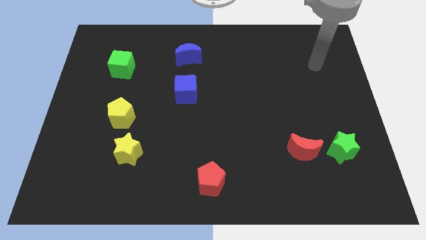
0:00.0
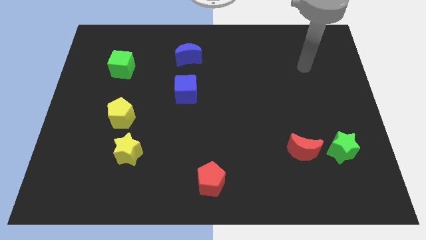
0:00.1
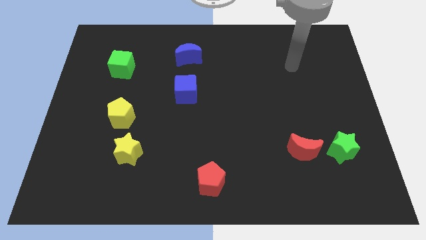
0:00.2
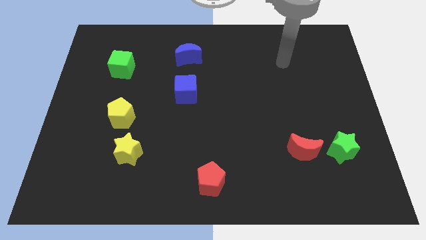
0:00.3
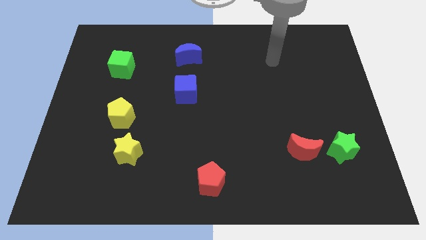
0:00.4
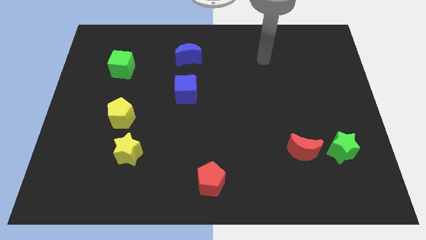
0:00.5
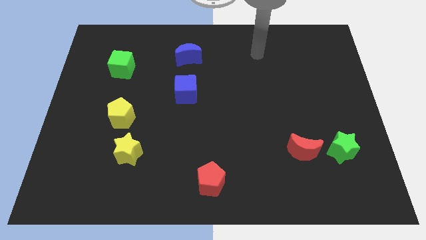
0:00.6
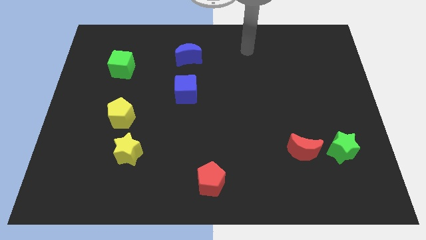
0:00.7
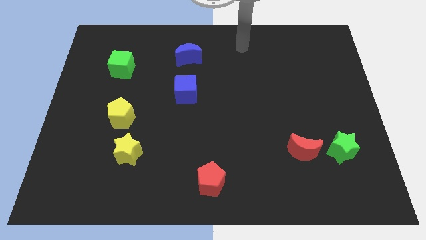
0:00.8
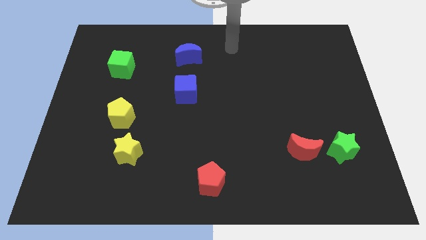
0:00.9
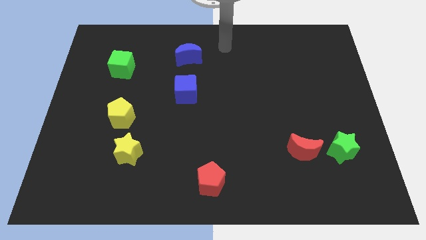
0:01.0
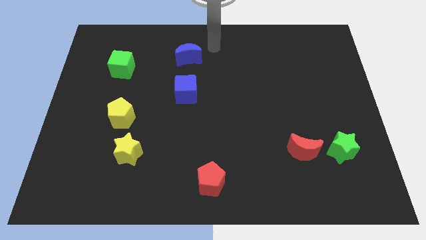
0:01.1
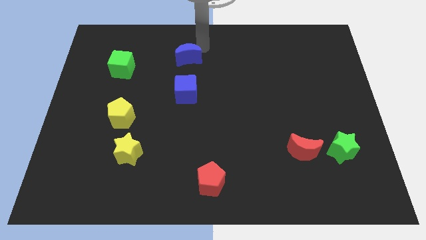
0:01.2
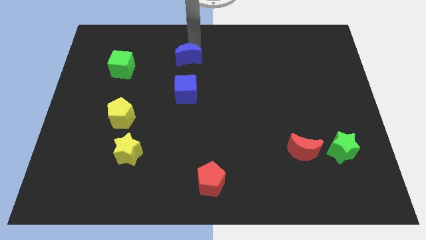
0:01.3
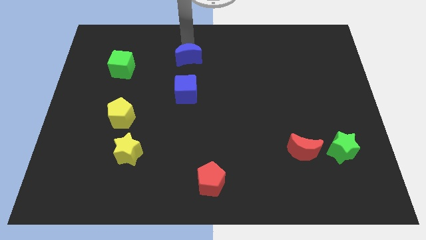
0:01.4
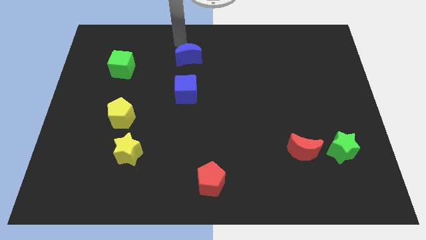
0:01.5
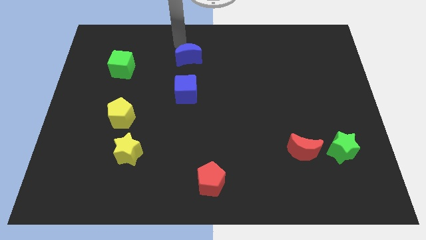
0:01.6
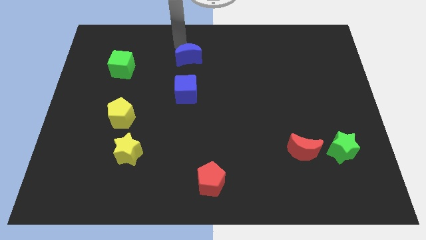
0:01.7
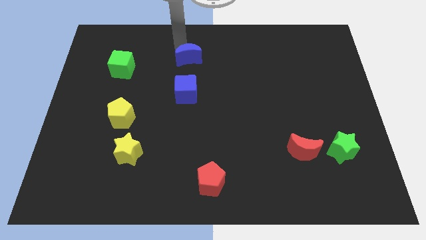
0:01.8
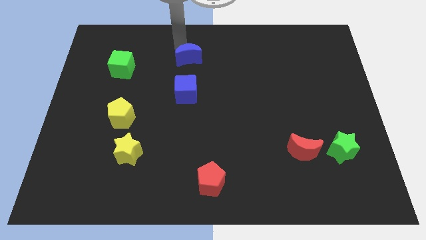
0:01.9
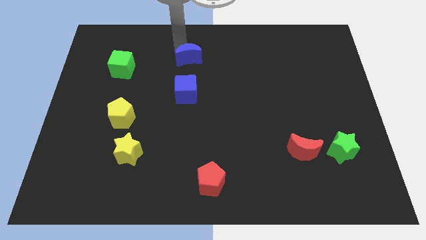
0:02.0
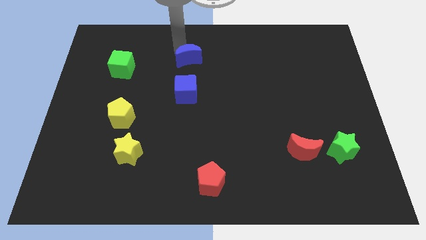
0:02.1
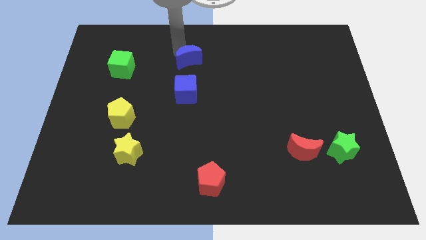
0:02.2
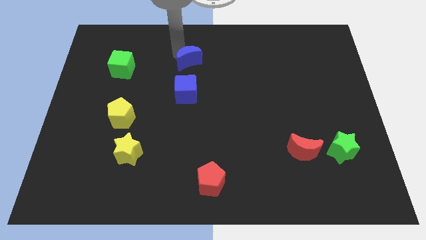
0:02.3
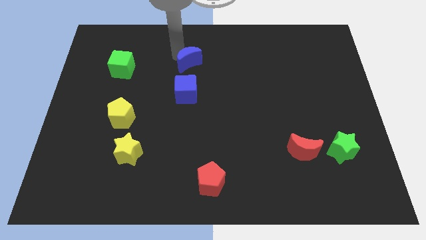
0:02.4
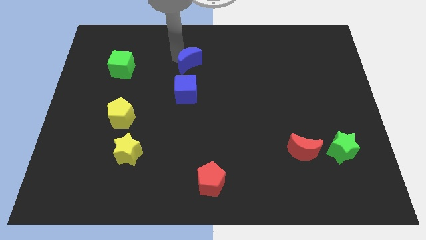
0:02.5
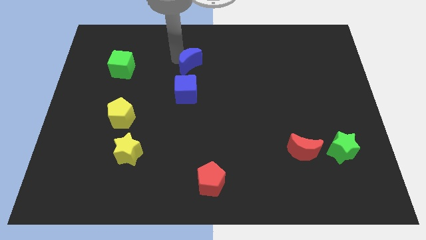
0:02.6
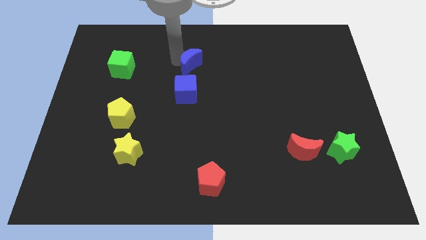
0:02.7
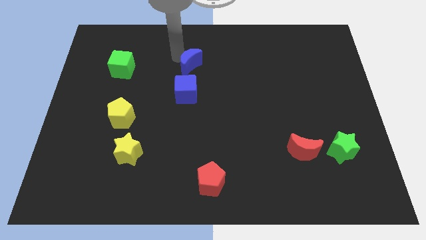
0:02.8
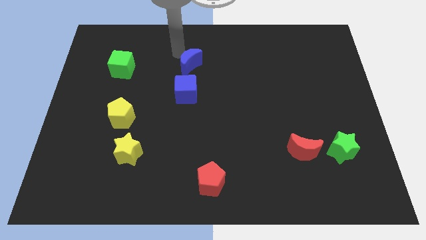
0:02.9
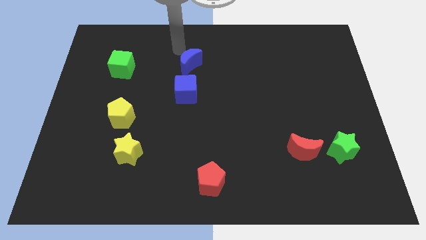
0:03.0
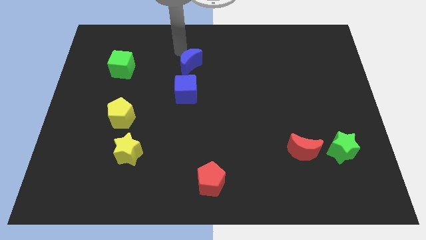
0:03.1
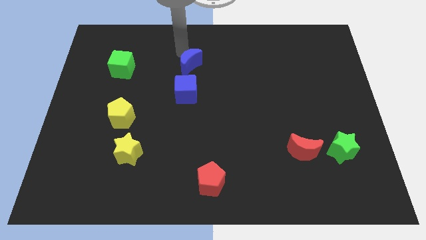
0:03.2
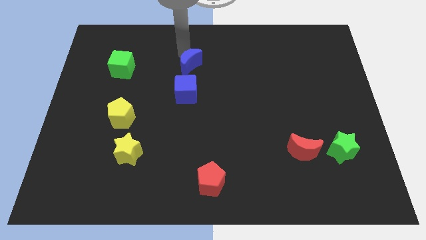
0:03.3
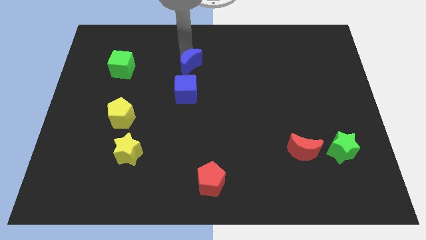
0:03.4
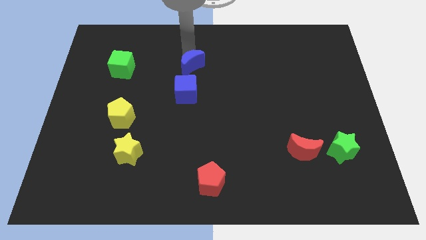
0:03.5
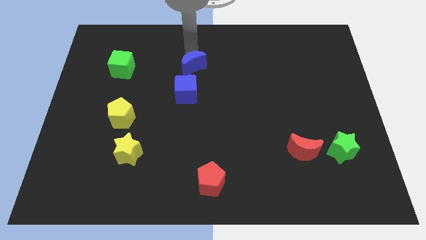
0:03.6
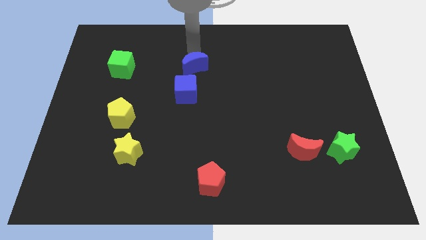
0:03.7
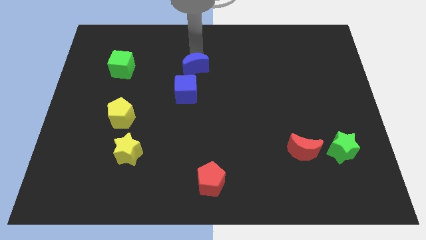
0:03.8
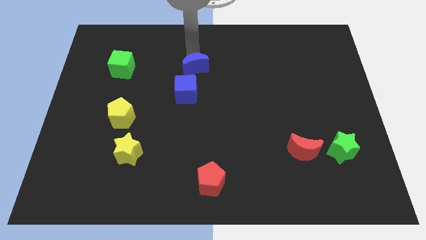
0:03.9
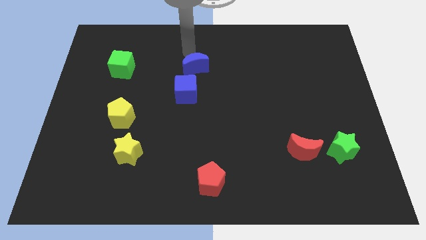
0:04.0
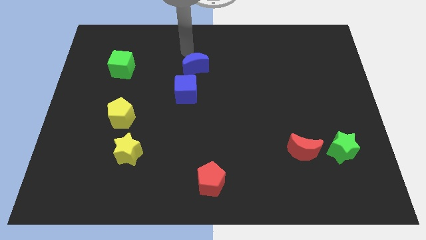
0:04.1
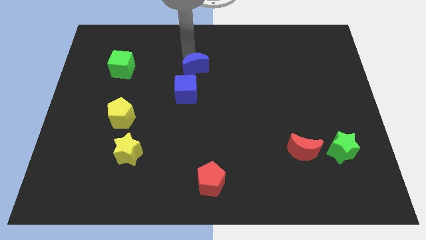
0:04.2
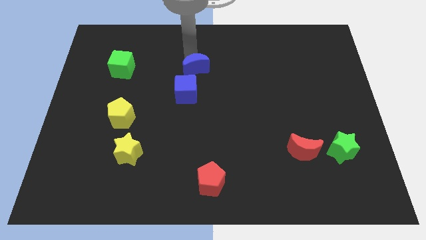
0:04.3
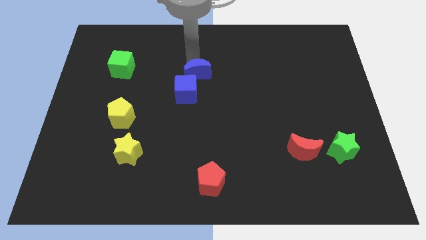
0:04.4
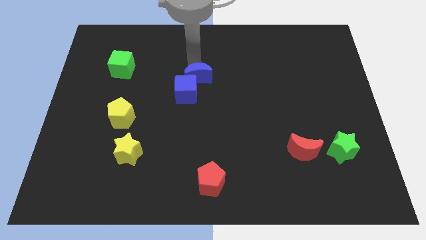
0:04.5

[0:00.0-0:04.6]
move the blue moon down slightly

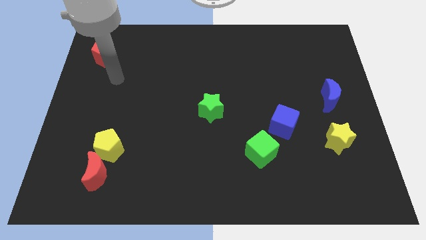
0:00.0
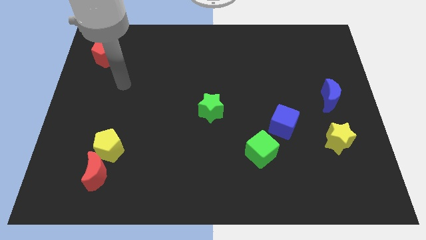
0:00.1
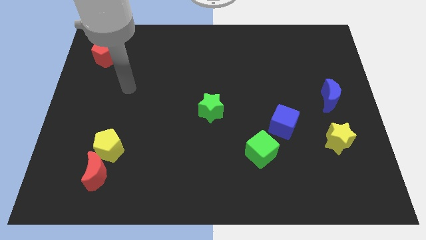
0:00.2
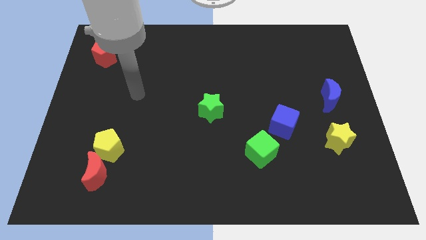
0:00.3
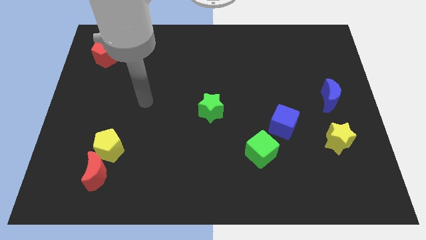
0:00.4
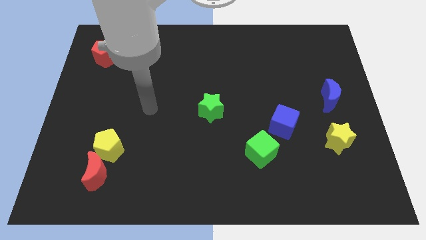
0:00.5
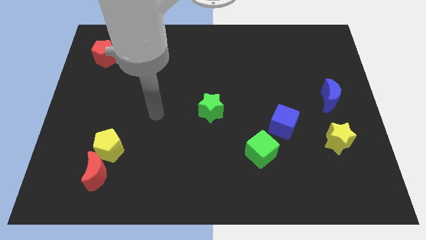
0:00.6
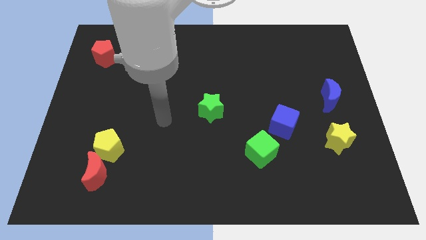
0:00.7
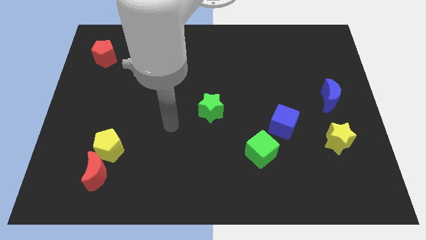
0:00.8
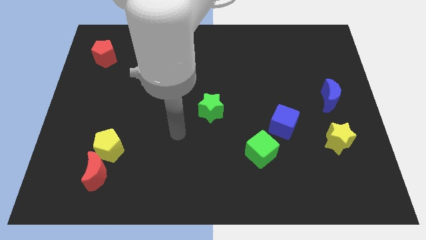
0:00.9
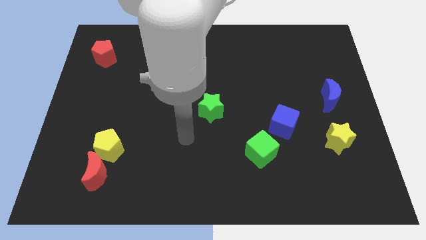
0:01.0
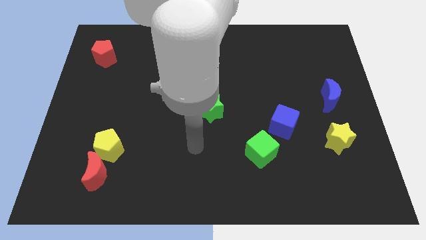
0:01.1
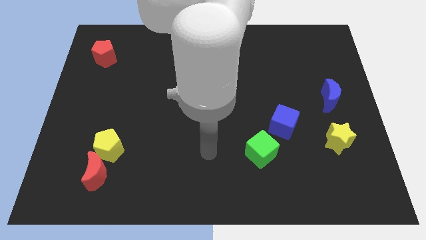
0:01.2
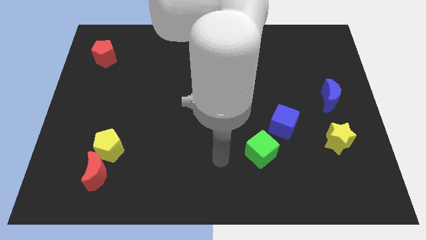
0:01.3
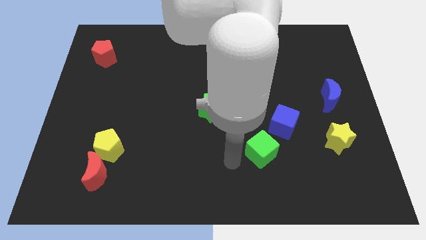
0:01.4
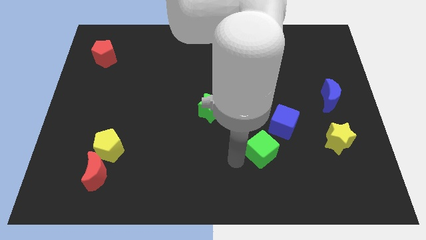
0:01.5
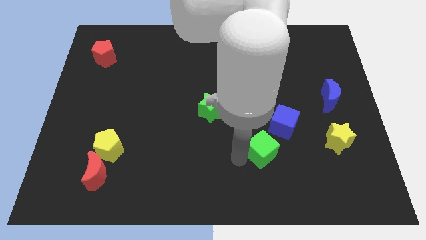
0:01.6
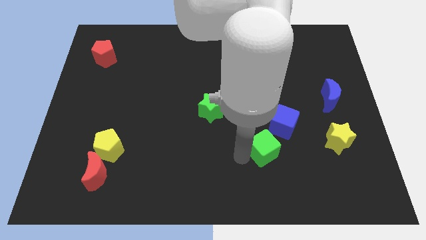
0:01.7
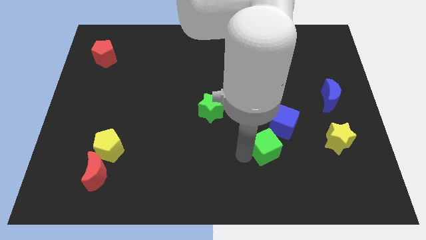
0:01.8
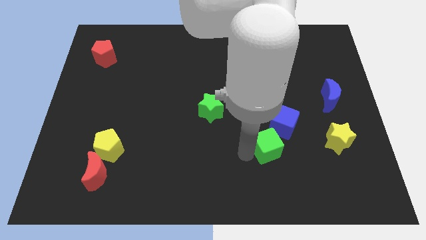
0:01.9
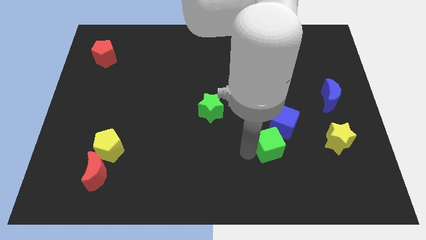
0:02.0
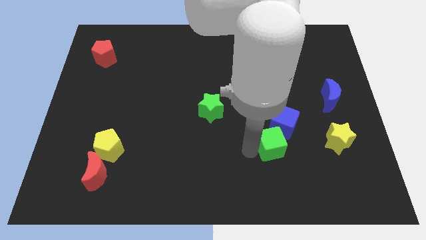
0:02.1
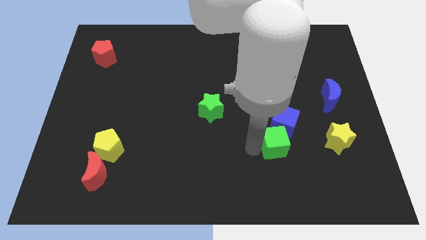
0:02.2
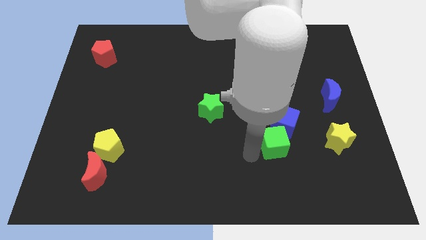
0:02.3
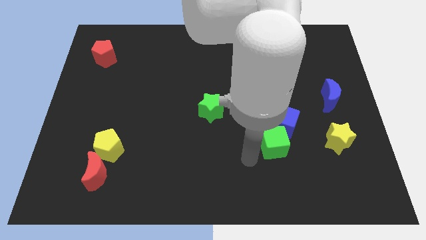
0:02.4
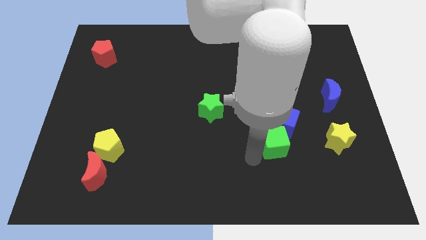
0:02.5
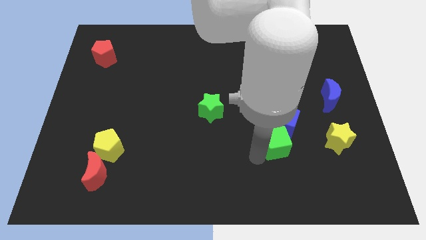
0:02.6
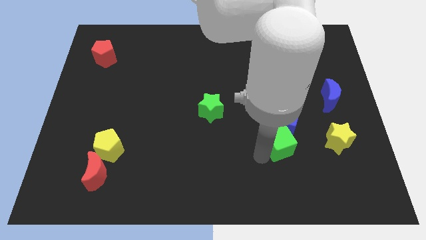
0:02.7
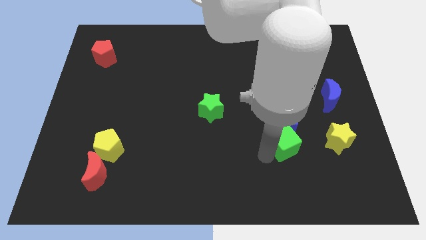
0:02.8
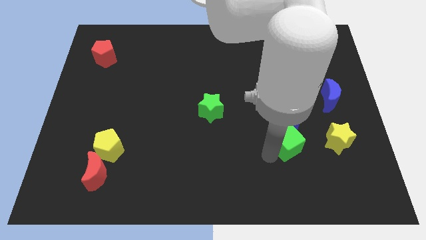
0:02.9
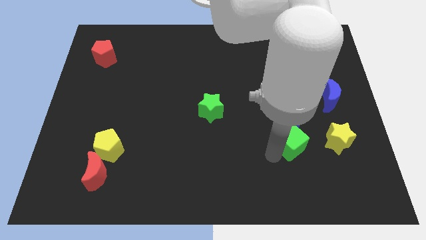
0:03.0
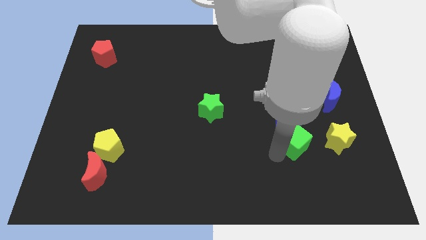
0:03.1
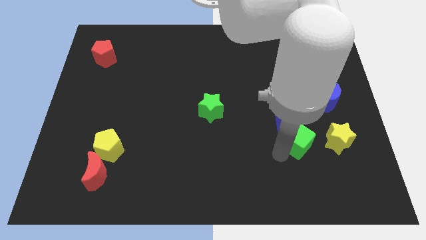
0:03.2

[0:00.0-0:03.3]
slightly move the green cube up and then right

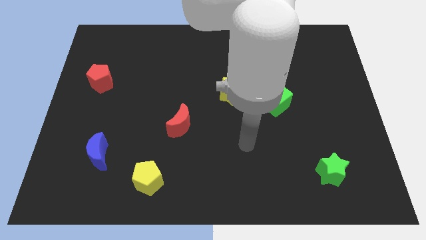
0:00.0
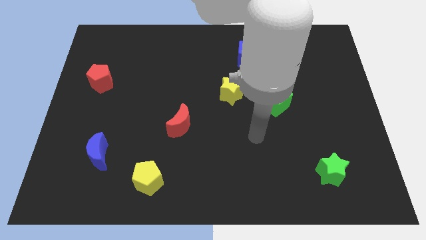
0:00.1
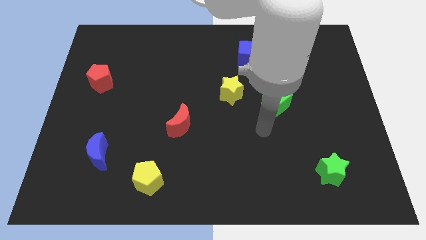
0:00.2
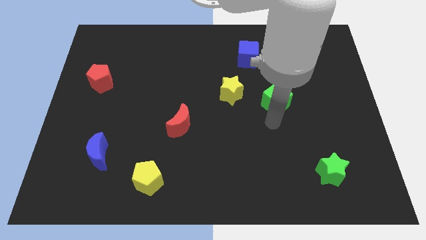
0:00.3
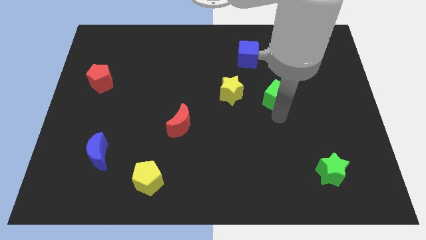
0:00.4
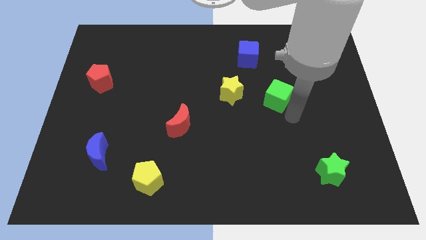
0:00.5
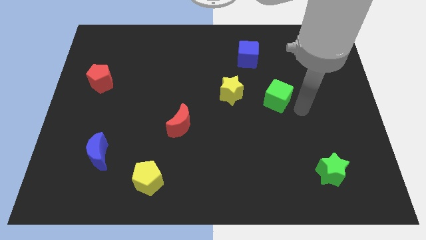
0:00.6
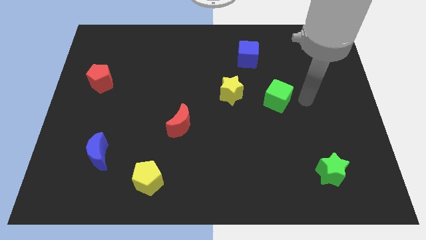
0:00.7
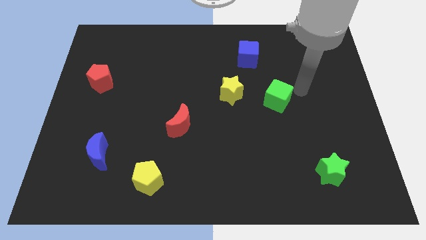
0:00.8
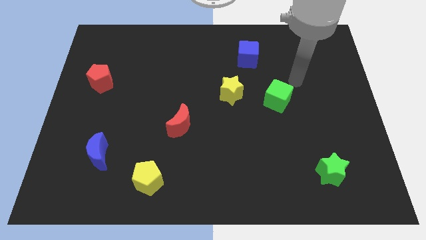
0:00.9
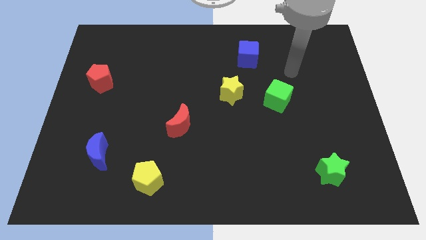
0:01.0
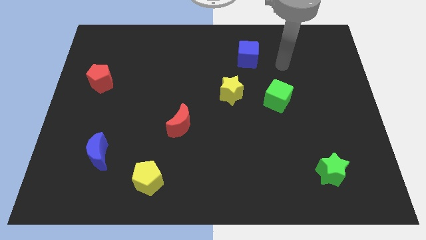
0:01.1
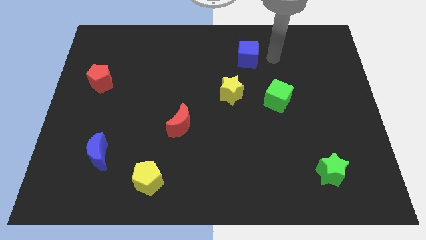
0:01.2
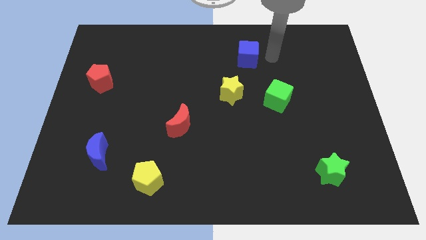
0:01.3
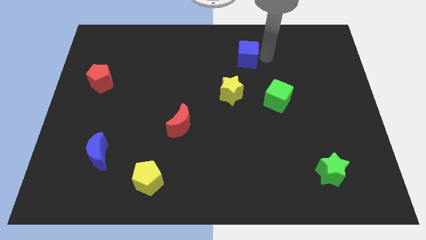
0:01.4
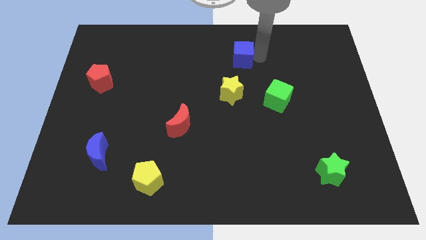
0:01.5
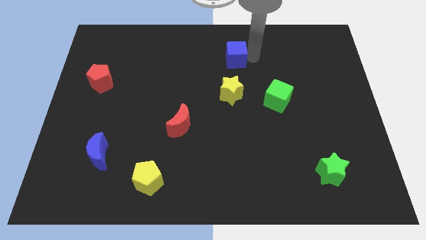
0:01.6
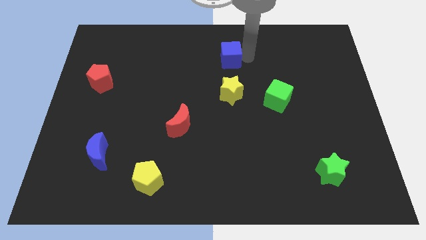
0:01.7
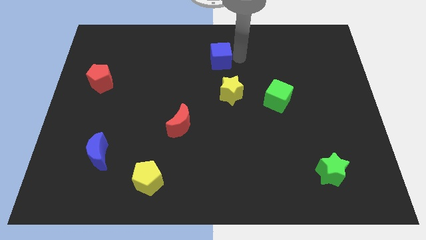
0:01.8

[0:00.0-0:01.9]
slightly push the blue cube left
